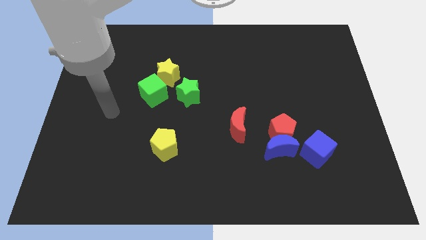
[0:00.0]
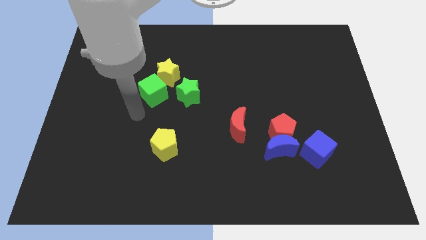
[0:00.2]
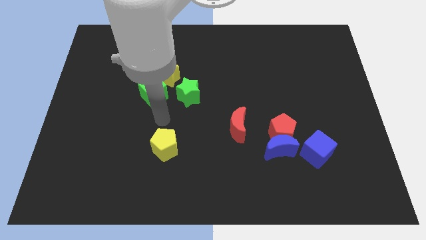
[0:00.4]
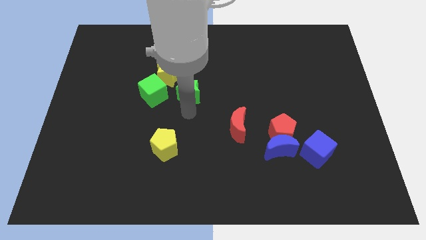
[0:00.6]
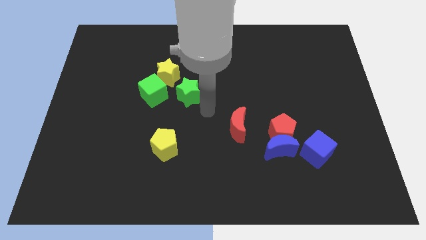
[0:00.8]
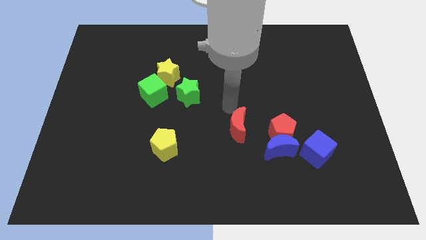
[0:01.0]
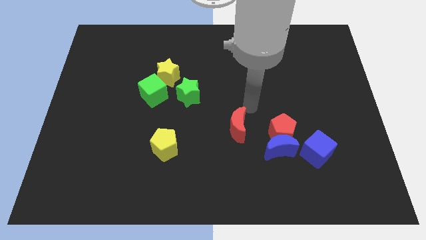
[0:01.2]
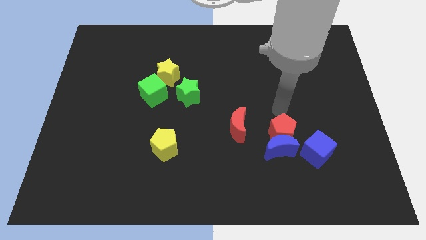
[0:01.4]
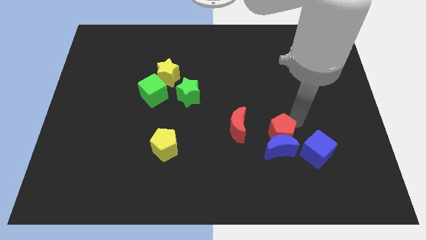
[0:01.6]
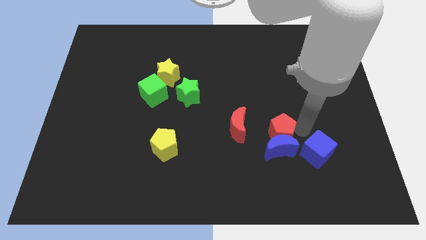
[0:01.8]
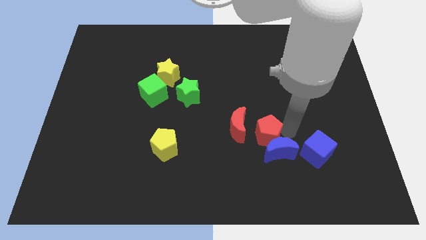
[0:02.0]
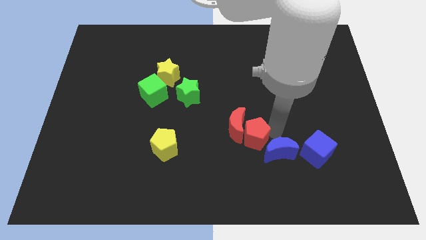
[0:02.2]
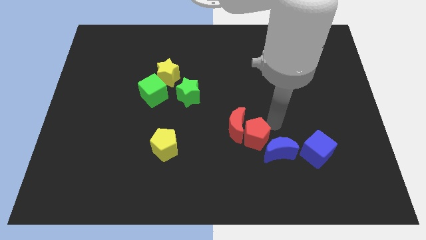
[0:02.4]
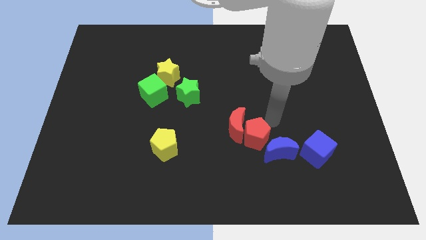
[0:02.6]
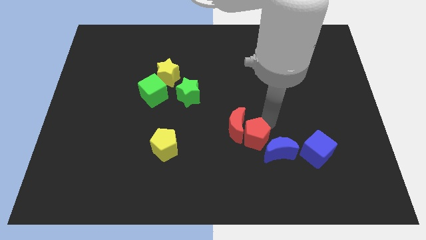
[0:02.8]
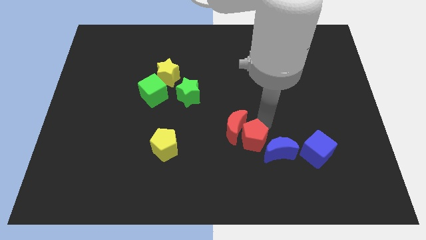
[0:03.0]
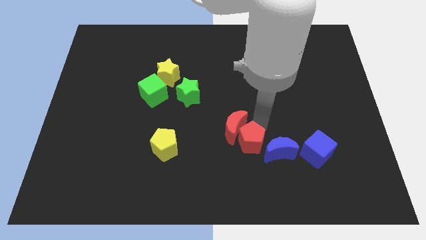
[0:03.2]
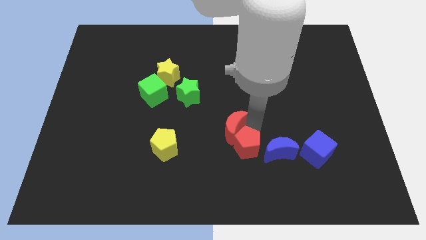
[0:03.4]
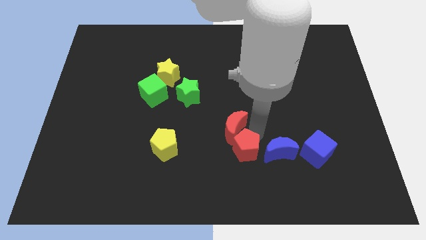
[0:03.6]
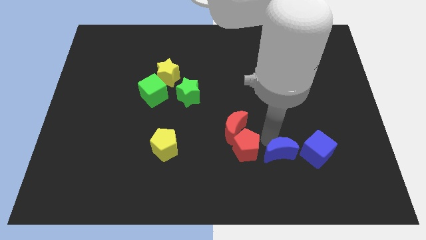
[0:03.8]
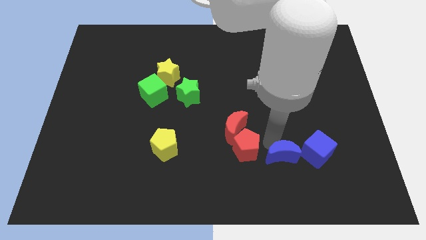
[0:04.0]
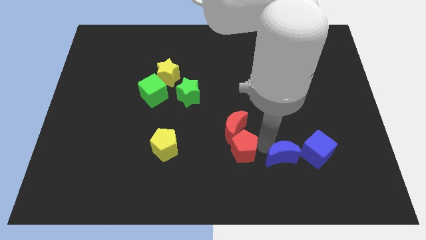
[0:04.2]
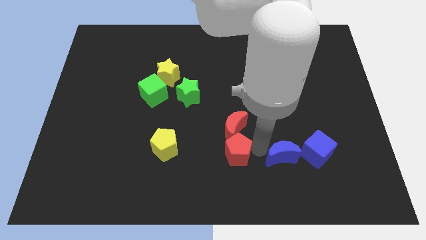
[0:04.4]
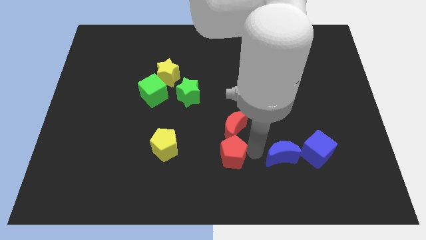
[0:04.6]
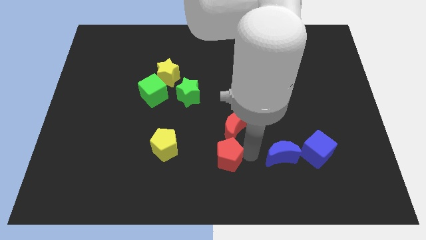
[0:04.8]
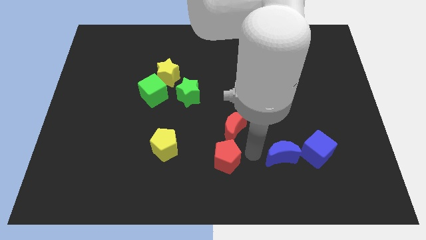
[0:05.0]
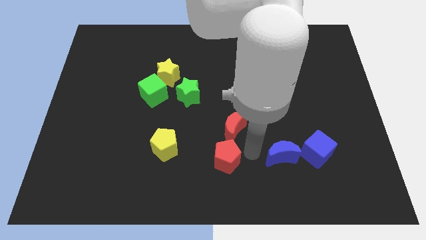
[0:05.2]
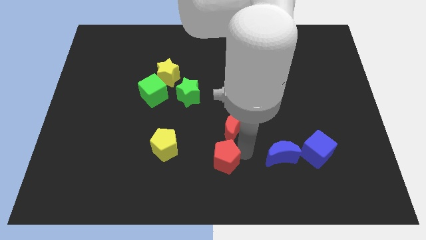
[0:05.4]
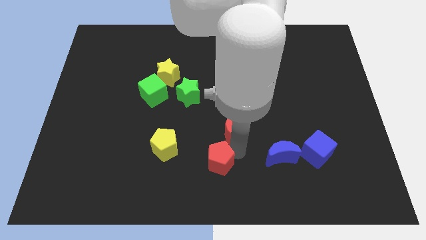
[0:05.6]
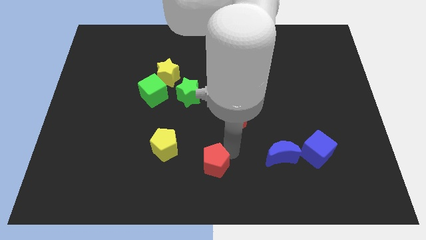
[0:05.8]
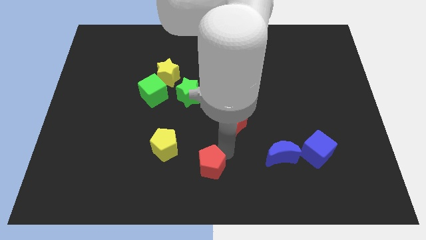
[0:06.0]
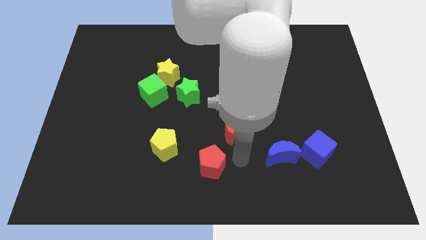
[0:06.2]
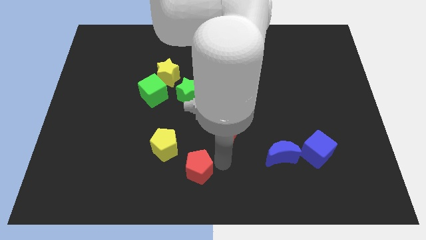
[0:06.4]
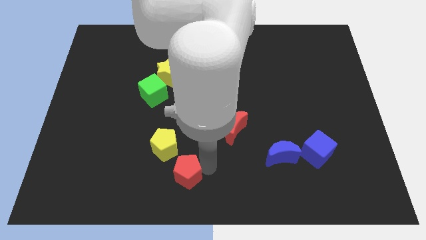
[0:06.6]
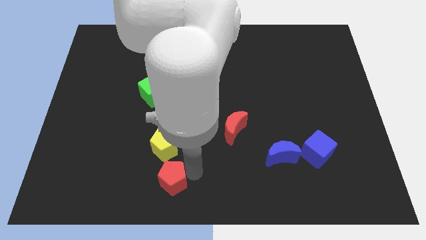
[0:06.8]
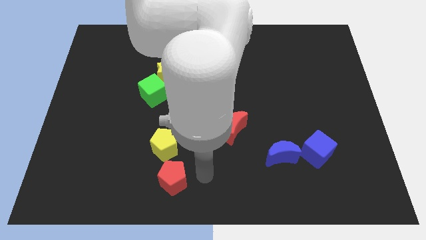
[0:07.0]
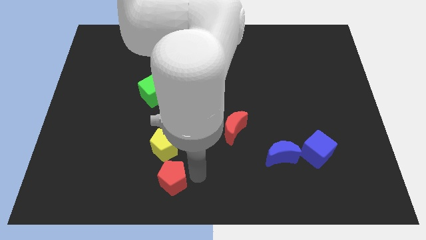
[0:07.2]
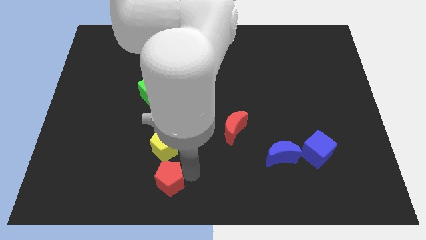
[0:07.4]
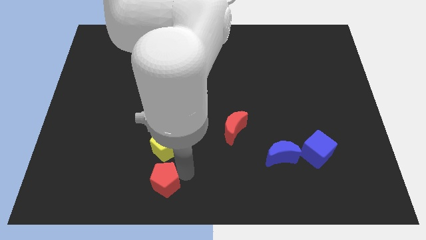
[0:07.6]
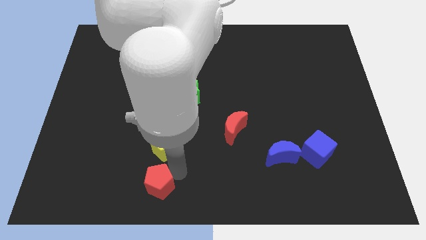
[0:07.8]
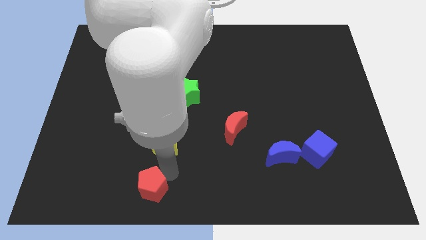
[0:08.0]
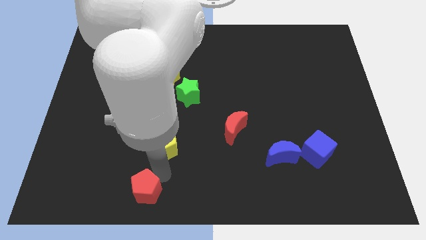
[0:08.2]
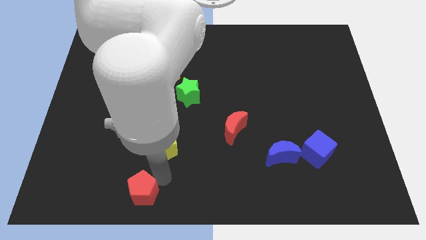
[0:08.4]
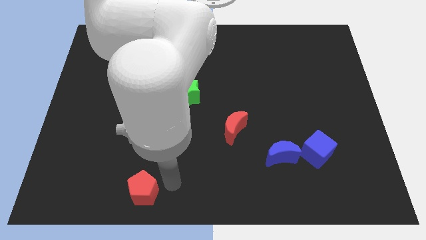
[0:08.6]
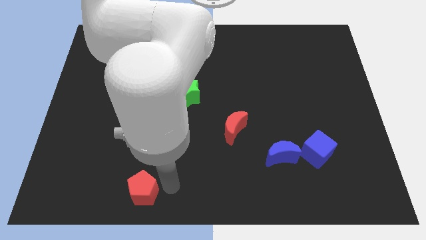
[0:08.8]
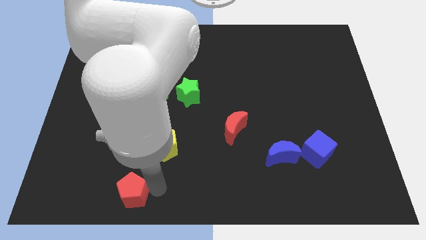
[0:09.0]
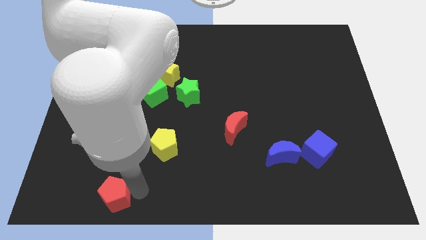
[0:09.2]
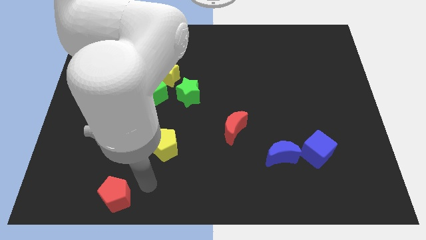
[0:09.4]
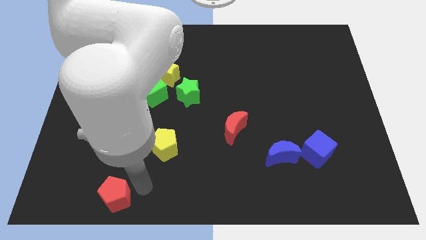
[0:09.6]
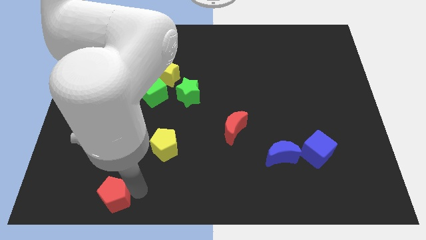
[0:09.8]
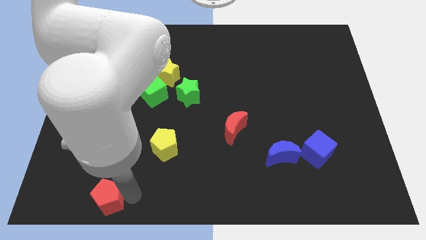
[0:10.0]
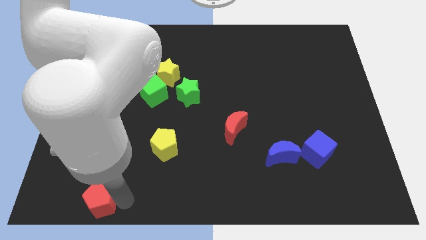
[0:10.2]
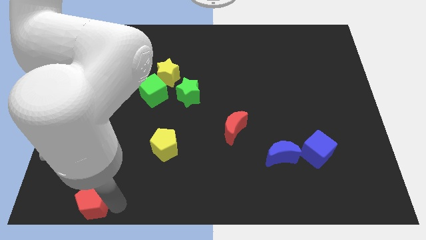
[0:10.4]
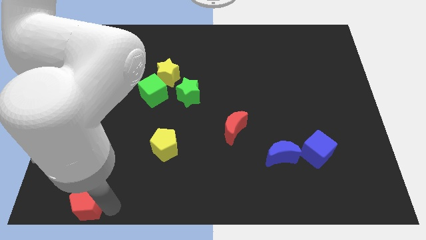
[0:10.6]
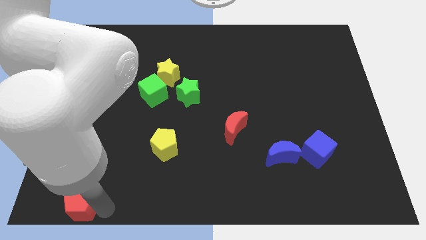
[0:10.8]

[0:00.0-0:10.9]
put the red pentagon to the lower left corner
